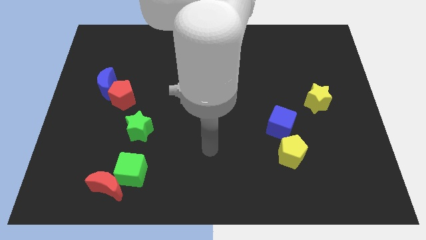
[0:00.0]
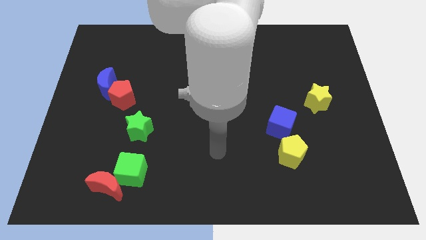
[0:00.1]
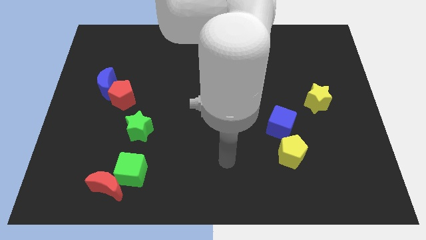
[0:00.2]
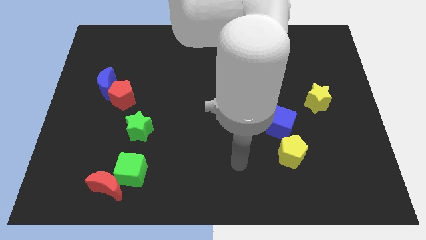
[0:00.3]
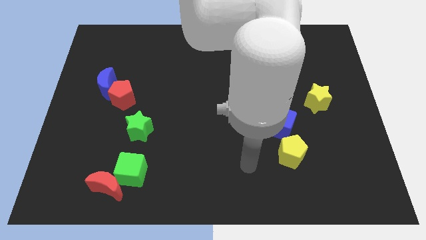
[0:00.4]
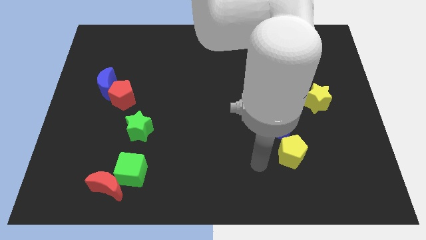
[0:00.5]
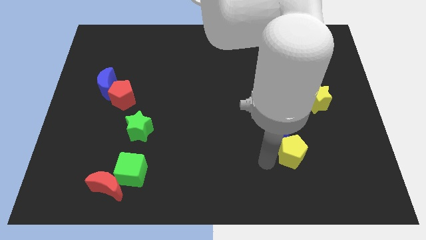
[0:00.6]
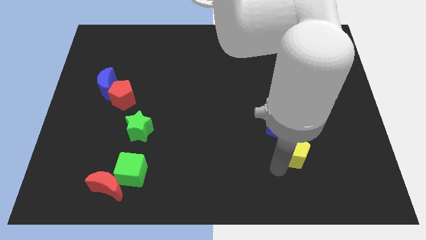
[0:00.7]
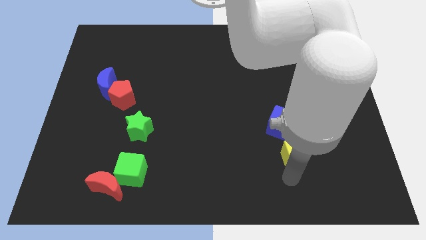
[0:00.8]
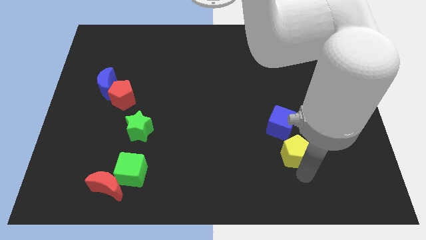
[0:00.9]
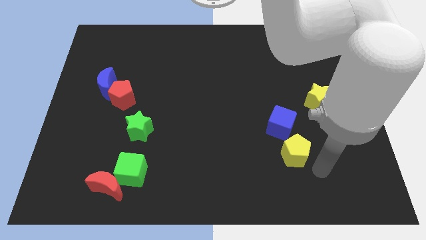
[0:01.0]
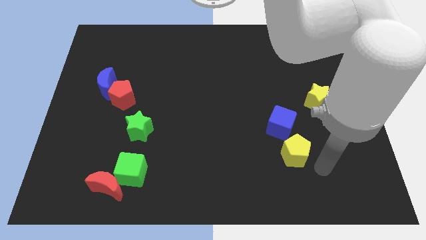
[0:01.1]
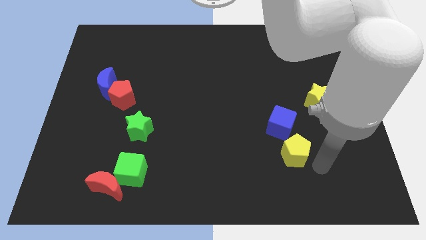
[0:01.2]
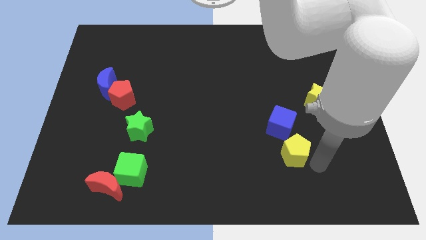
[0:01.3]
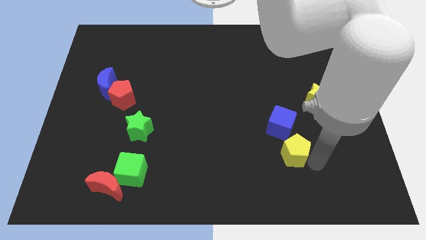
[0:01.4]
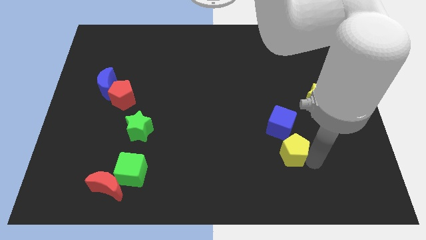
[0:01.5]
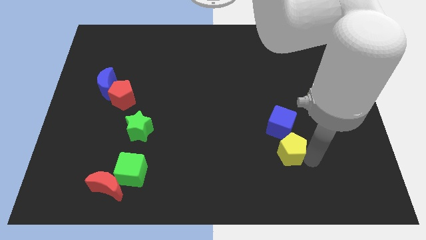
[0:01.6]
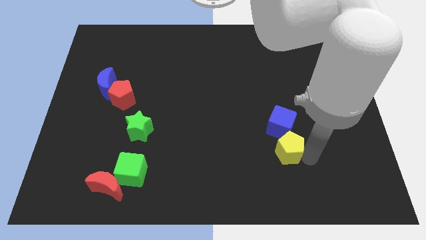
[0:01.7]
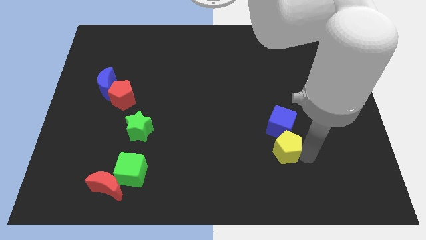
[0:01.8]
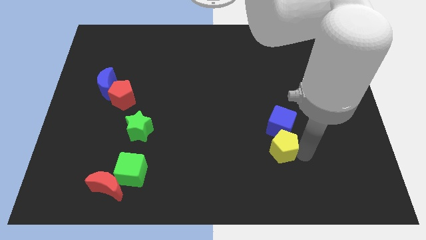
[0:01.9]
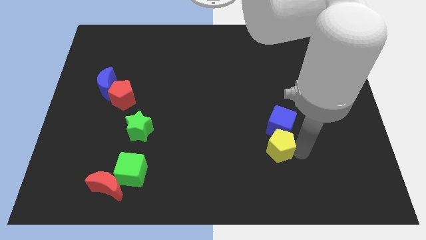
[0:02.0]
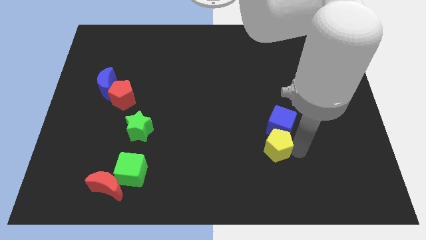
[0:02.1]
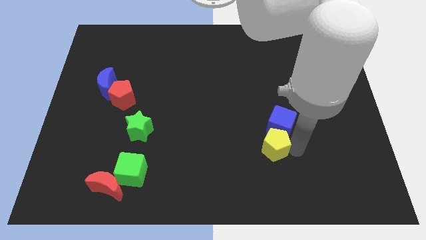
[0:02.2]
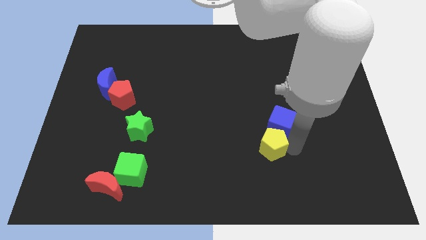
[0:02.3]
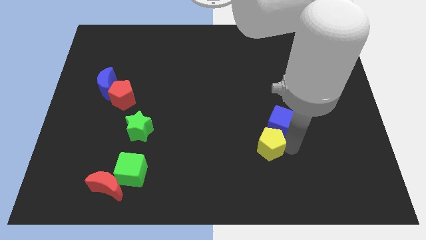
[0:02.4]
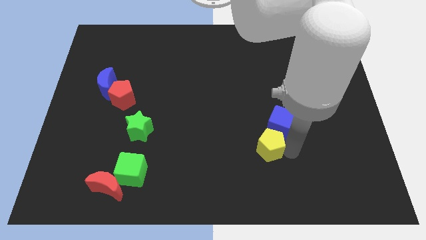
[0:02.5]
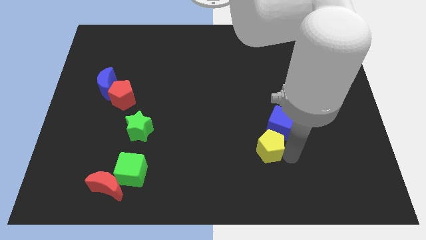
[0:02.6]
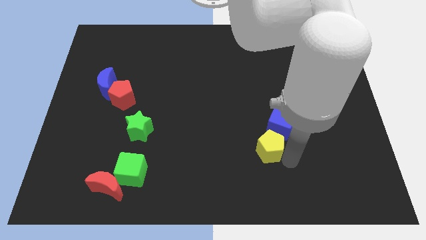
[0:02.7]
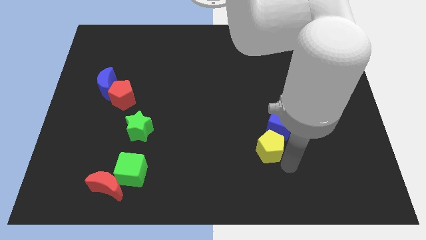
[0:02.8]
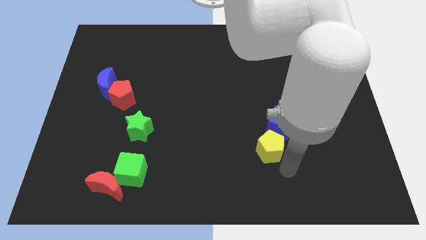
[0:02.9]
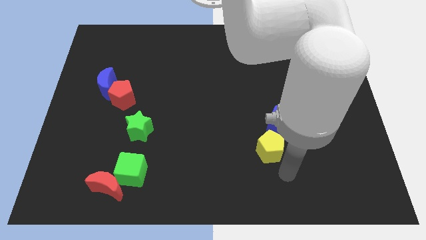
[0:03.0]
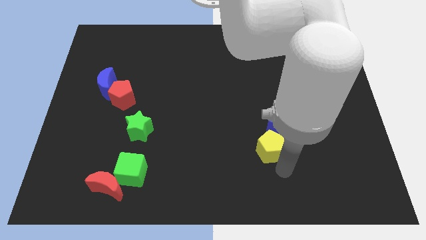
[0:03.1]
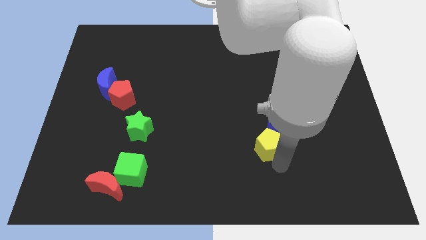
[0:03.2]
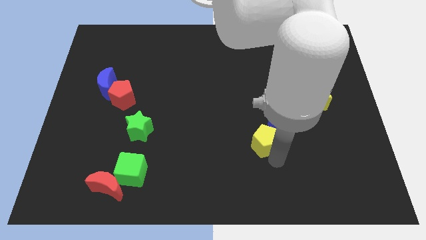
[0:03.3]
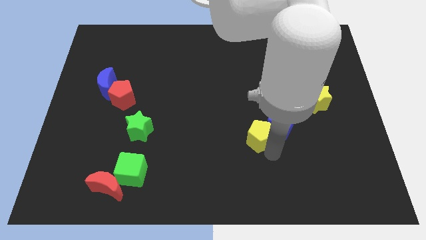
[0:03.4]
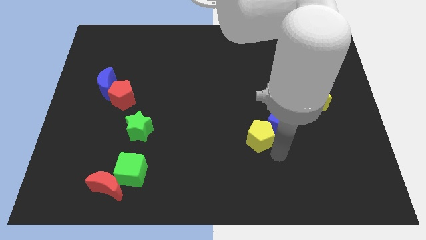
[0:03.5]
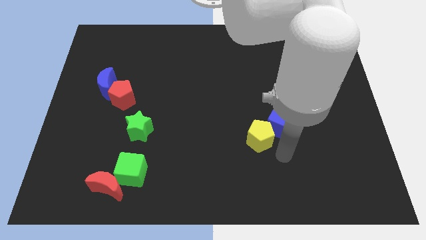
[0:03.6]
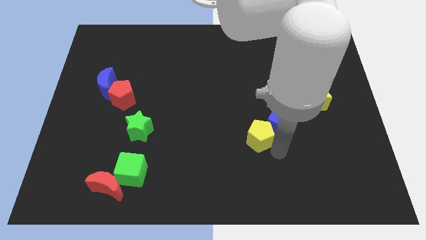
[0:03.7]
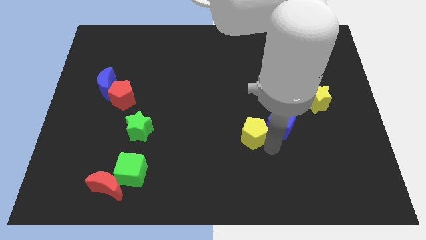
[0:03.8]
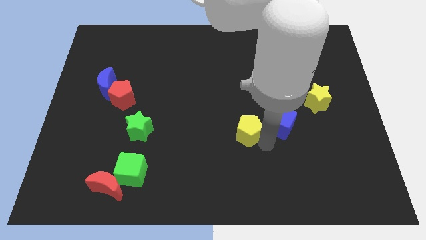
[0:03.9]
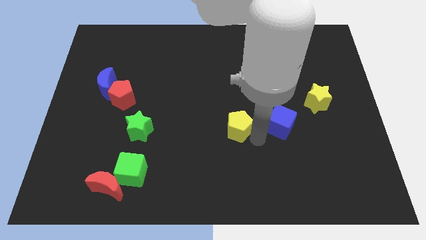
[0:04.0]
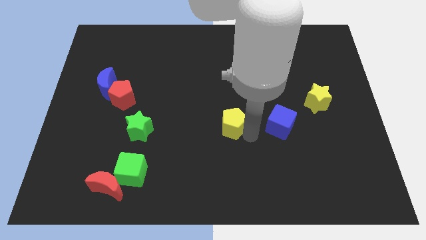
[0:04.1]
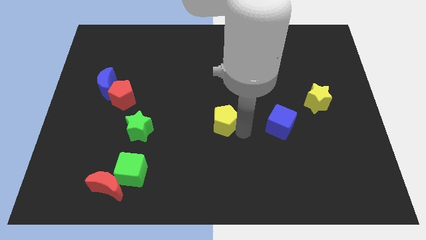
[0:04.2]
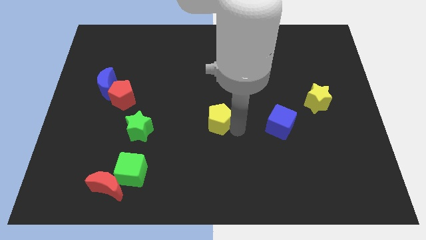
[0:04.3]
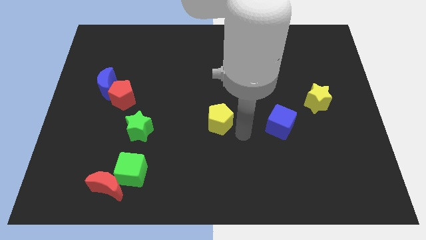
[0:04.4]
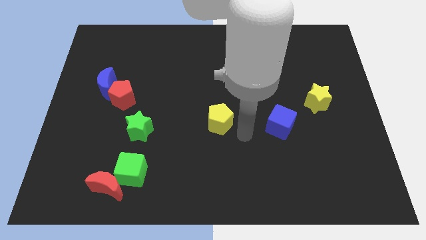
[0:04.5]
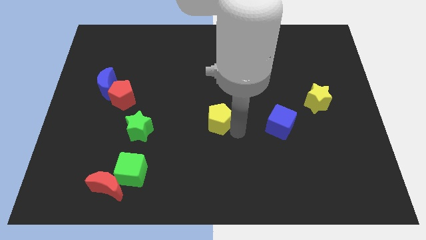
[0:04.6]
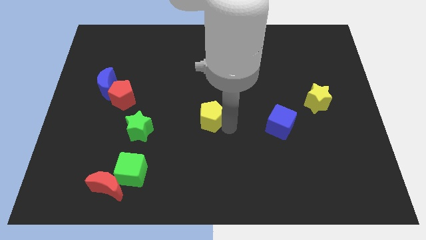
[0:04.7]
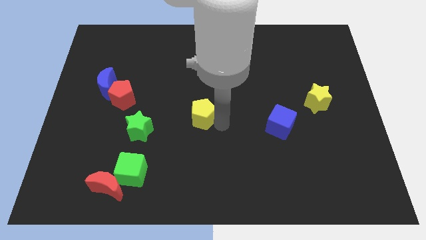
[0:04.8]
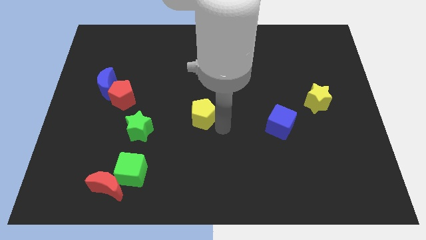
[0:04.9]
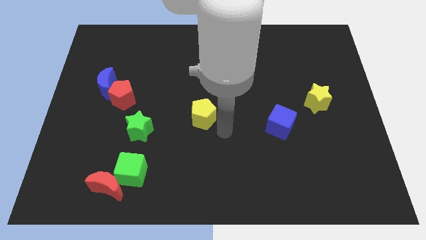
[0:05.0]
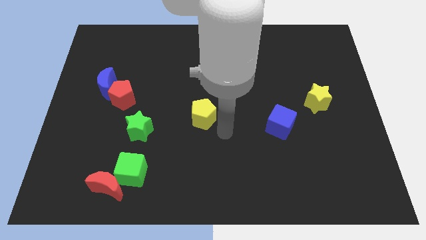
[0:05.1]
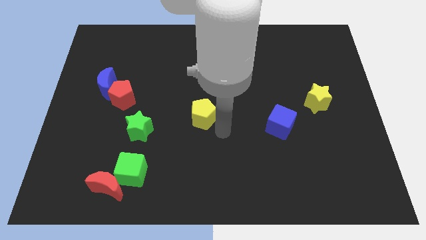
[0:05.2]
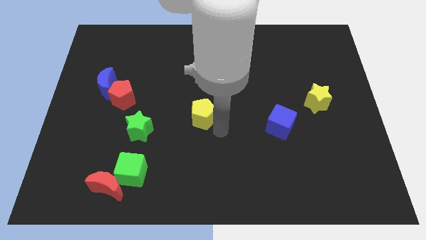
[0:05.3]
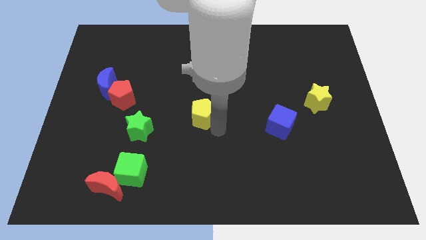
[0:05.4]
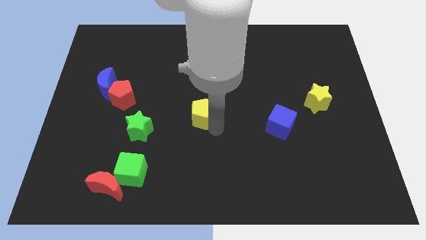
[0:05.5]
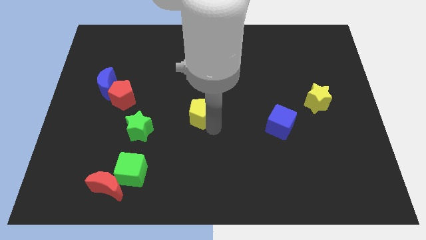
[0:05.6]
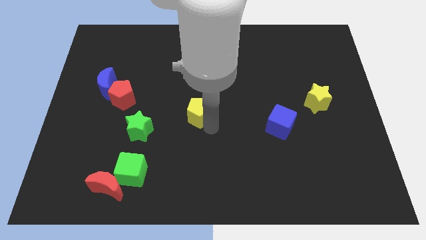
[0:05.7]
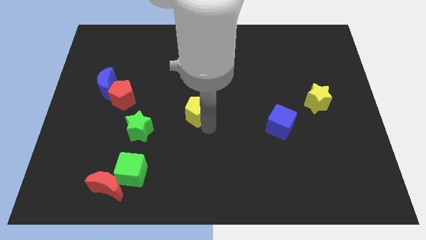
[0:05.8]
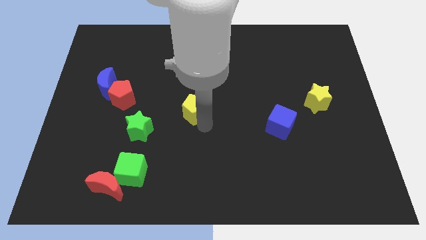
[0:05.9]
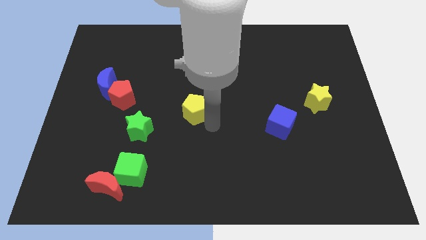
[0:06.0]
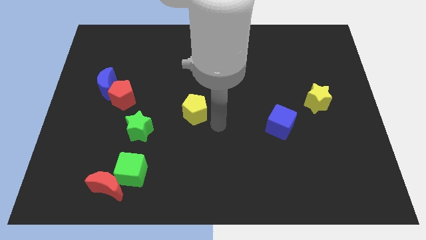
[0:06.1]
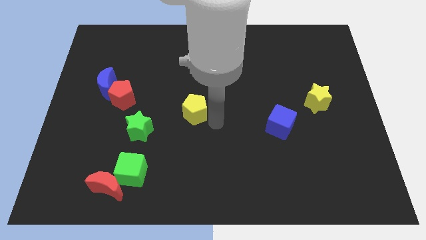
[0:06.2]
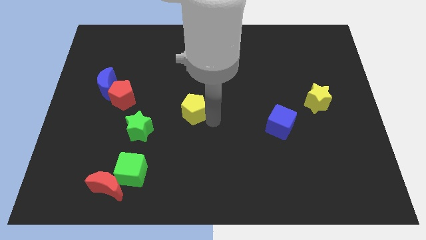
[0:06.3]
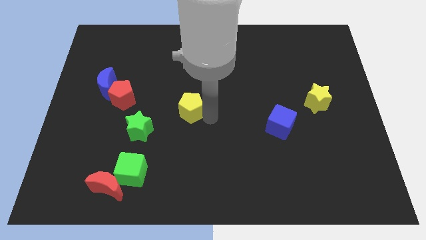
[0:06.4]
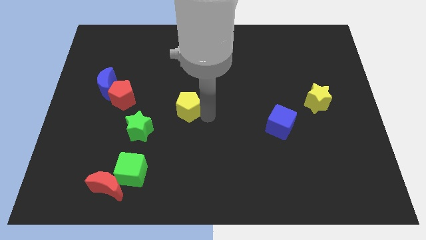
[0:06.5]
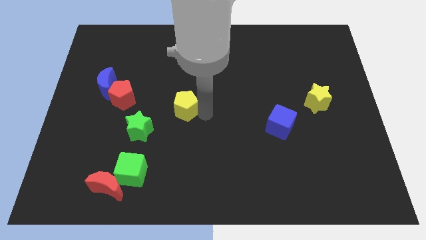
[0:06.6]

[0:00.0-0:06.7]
slide the yellow pentagon right of the red pentagon

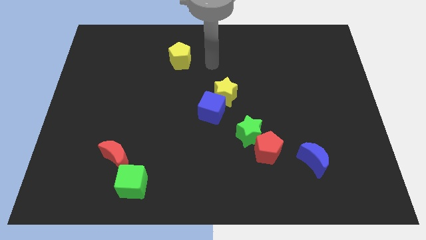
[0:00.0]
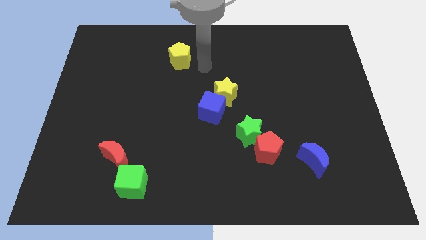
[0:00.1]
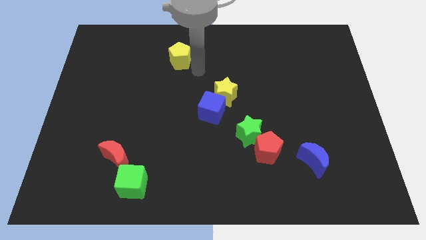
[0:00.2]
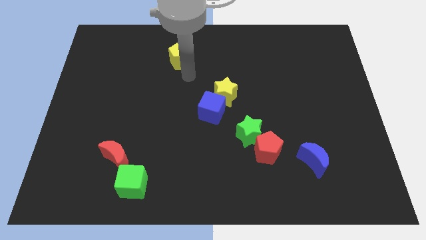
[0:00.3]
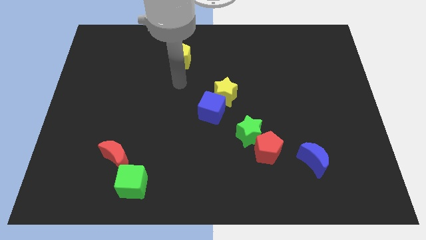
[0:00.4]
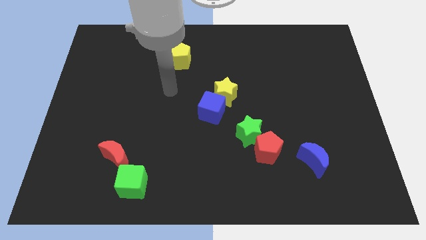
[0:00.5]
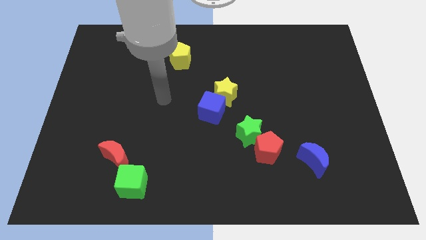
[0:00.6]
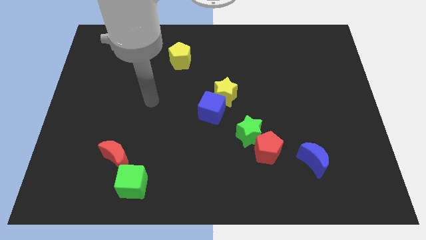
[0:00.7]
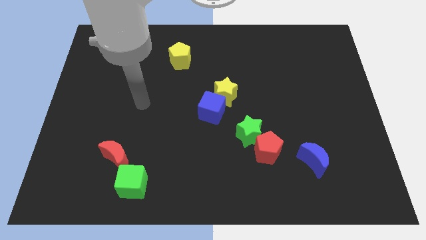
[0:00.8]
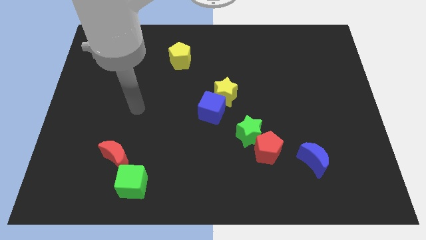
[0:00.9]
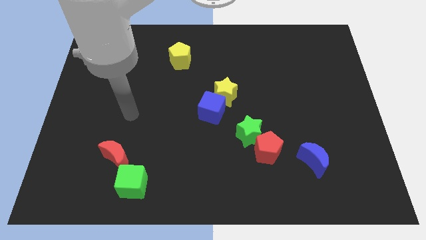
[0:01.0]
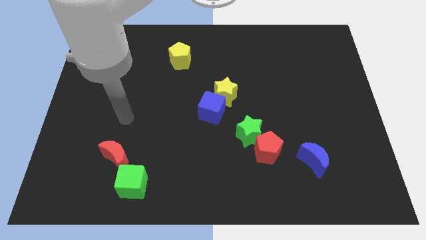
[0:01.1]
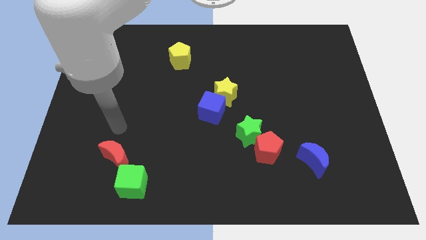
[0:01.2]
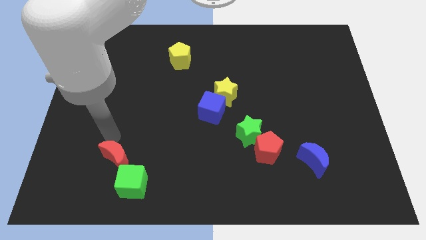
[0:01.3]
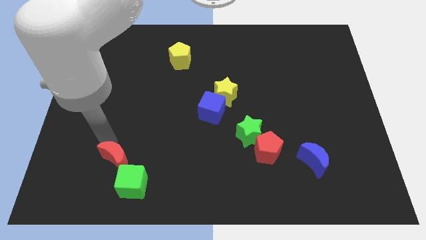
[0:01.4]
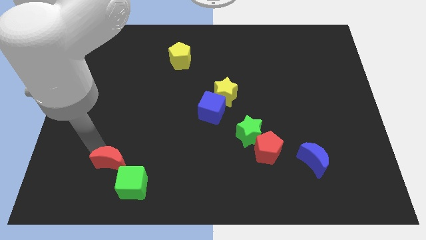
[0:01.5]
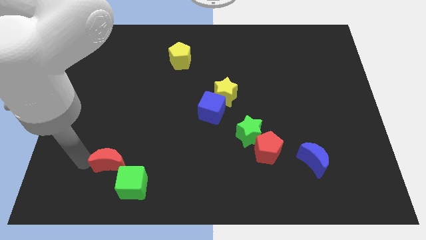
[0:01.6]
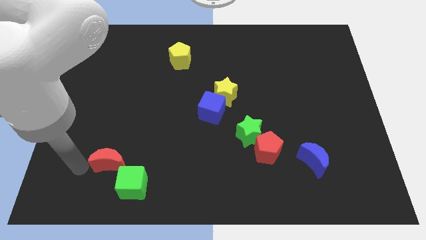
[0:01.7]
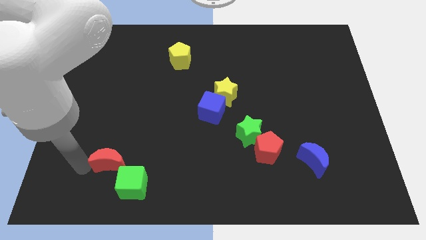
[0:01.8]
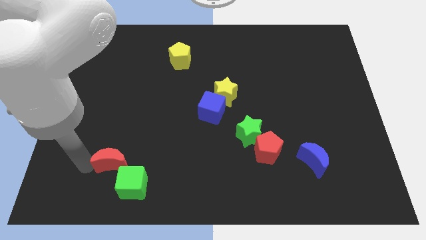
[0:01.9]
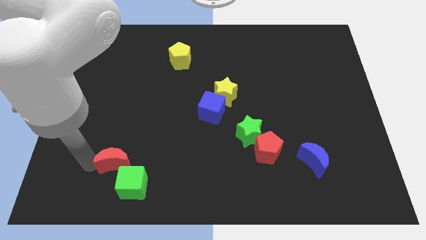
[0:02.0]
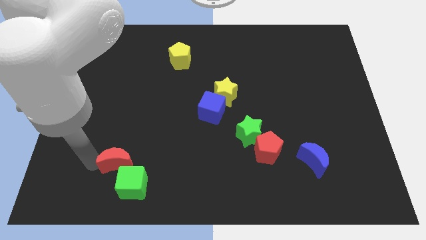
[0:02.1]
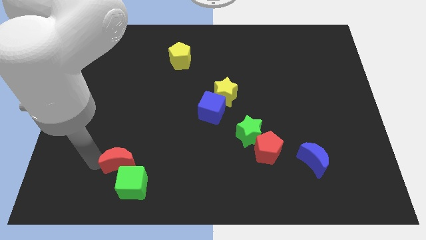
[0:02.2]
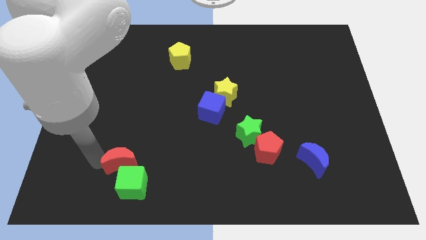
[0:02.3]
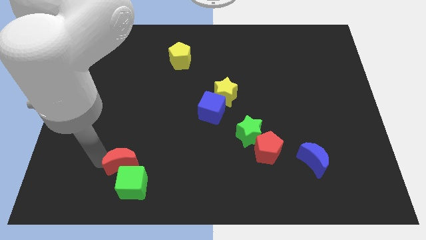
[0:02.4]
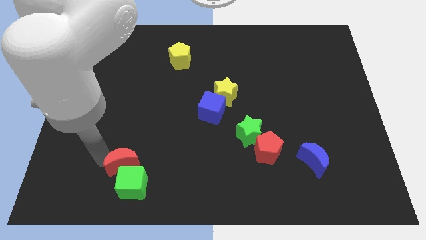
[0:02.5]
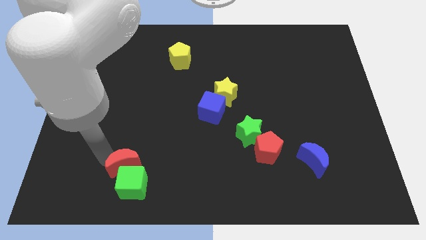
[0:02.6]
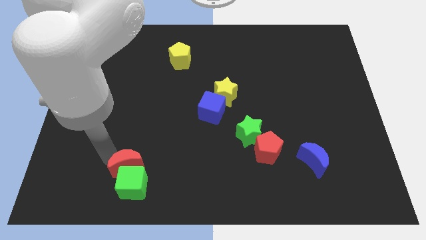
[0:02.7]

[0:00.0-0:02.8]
slide the red moon to the top right of the green cube
